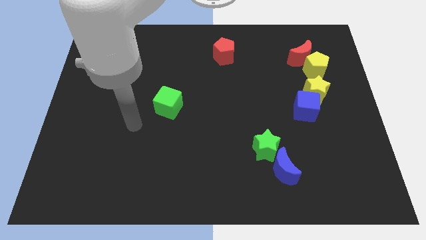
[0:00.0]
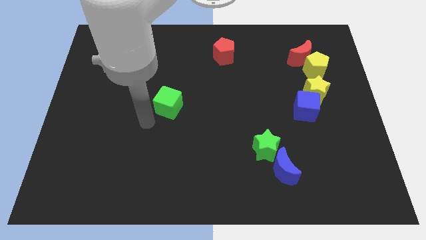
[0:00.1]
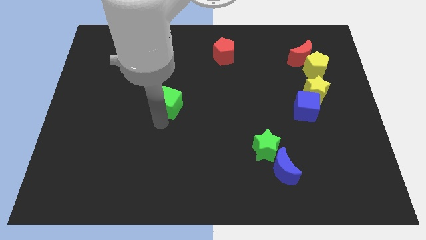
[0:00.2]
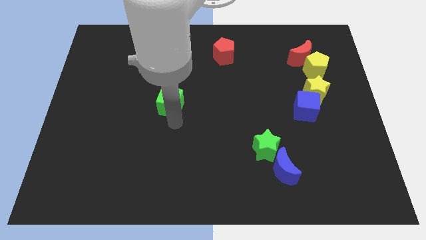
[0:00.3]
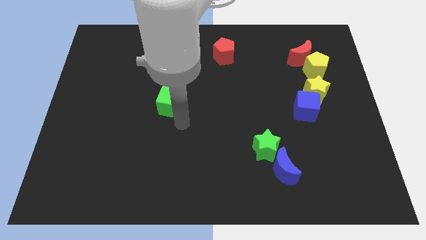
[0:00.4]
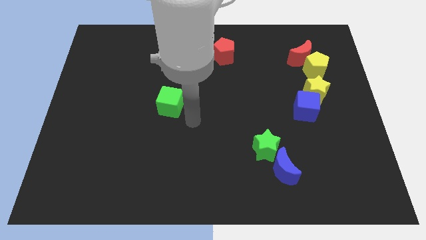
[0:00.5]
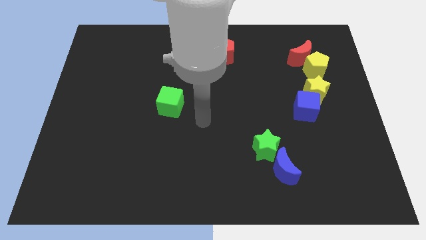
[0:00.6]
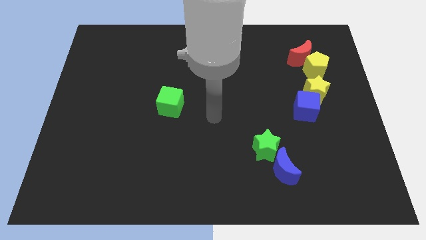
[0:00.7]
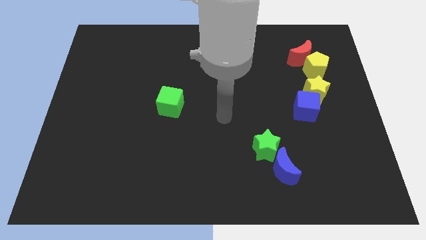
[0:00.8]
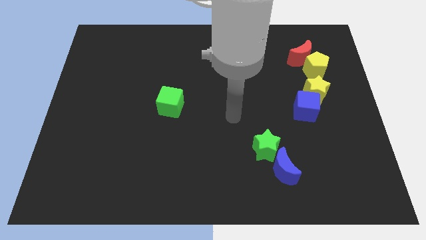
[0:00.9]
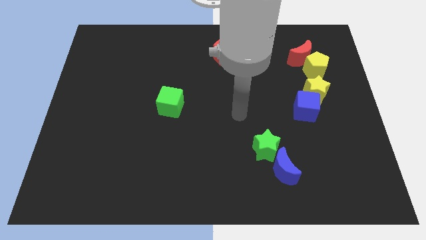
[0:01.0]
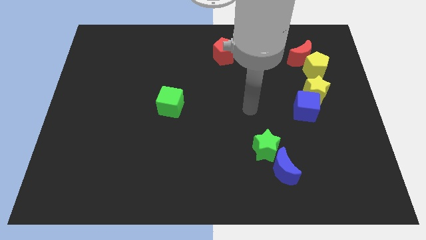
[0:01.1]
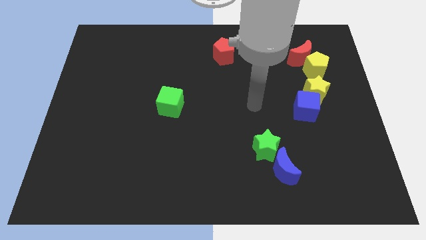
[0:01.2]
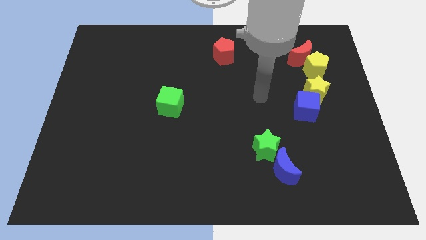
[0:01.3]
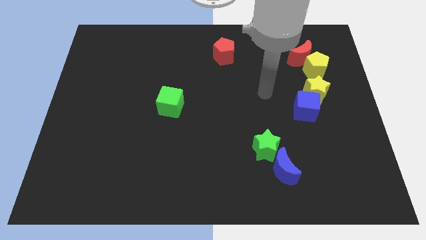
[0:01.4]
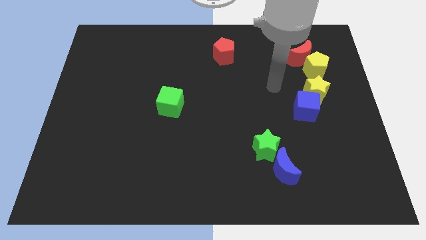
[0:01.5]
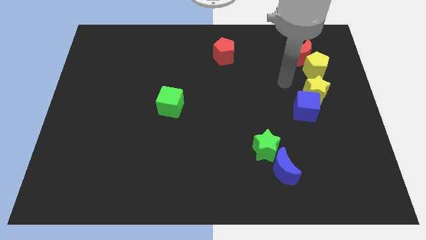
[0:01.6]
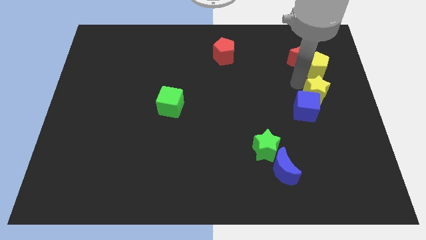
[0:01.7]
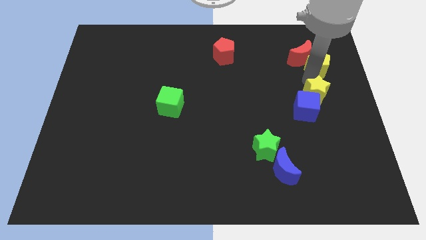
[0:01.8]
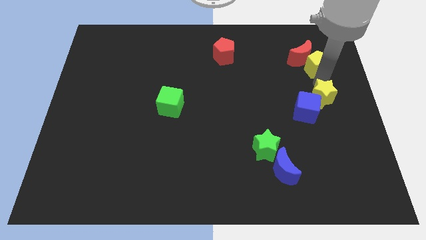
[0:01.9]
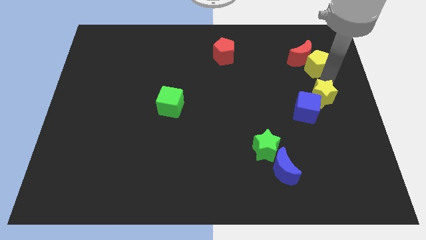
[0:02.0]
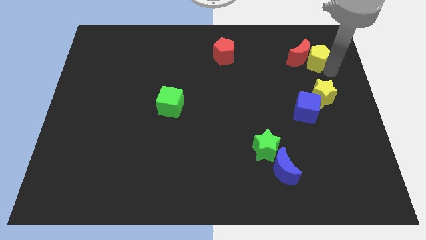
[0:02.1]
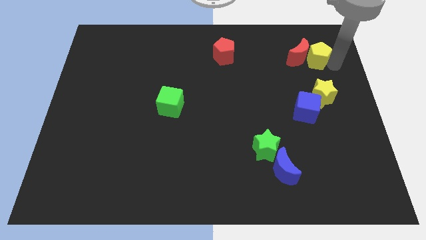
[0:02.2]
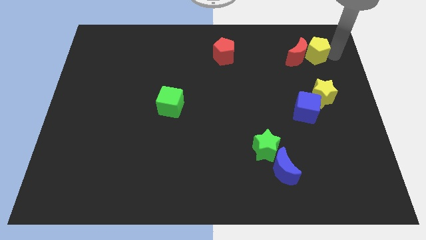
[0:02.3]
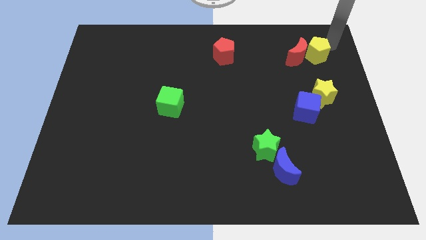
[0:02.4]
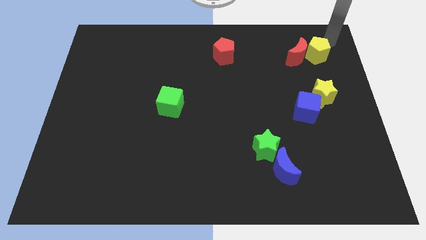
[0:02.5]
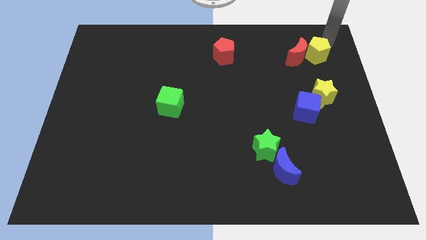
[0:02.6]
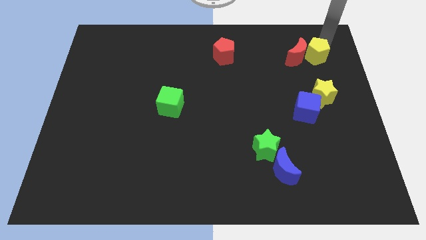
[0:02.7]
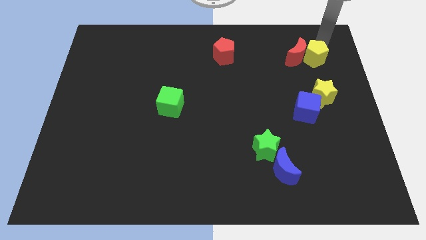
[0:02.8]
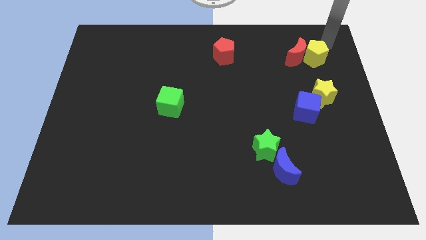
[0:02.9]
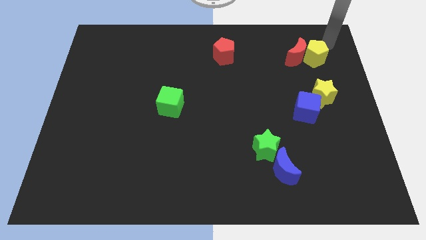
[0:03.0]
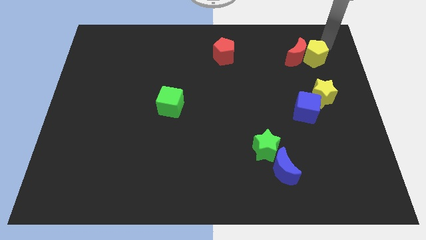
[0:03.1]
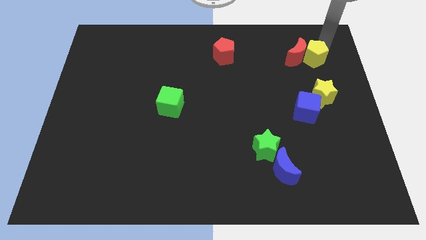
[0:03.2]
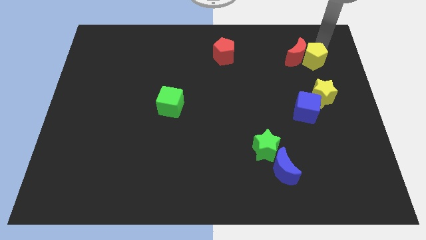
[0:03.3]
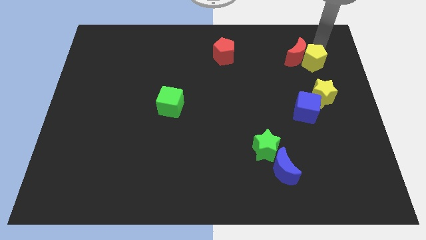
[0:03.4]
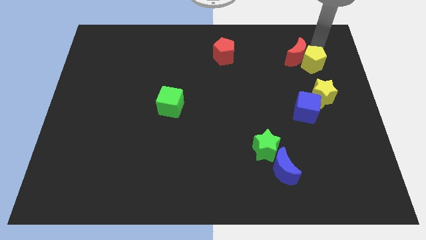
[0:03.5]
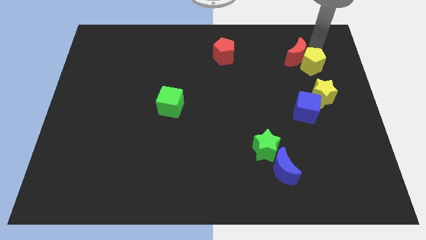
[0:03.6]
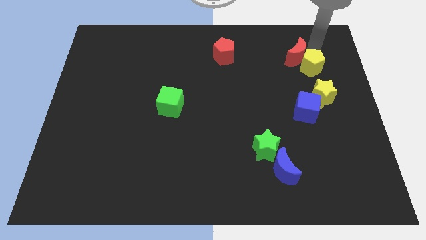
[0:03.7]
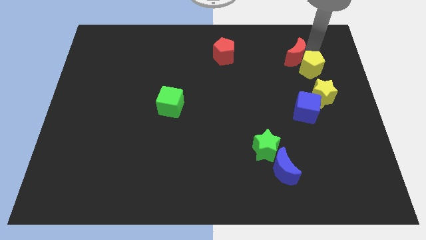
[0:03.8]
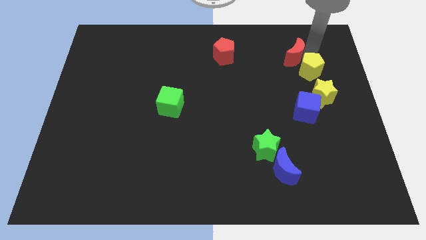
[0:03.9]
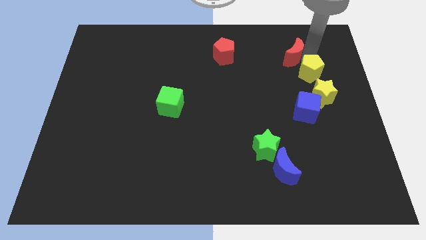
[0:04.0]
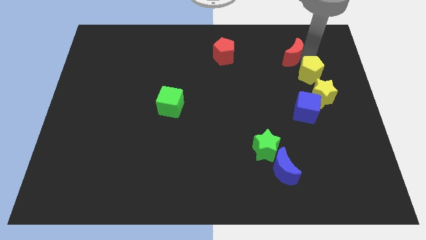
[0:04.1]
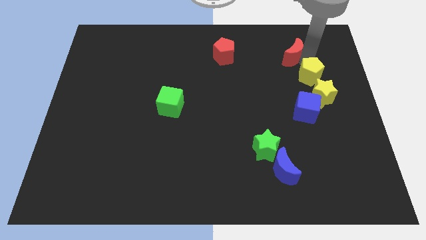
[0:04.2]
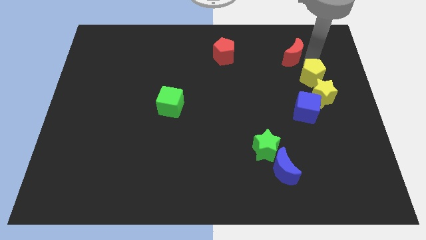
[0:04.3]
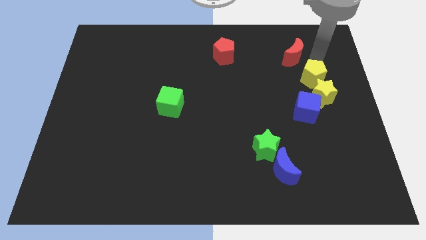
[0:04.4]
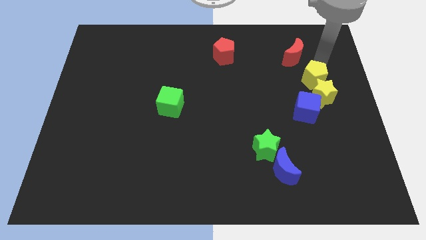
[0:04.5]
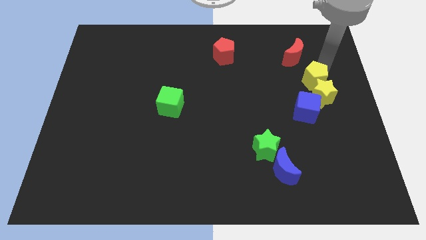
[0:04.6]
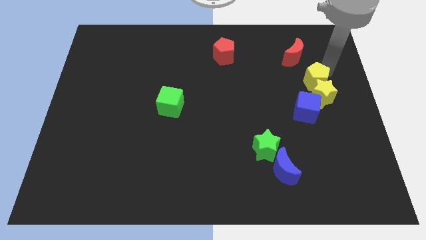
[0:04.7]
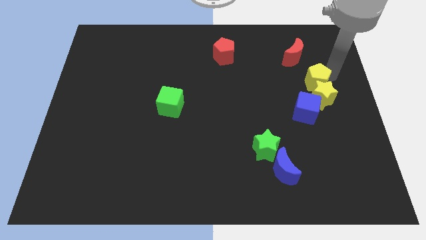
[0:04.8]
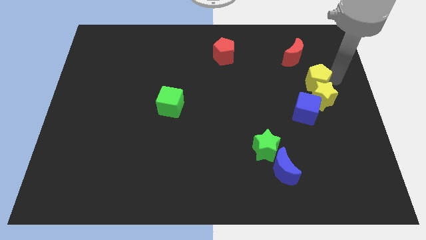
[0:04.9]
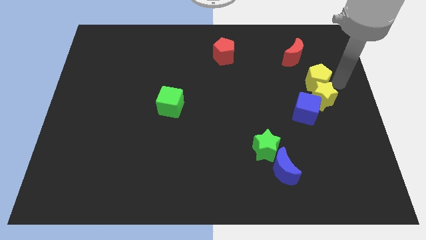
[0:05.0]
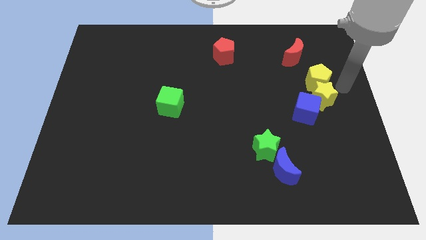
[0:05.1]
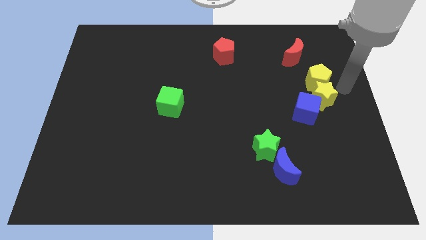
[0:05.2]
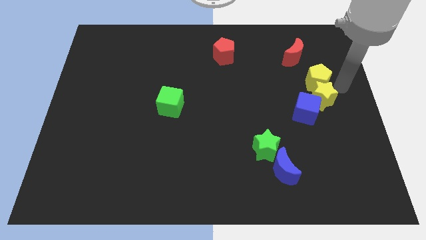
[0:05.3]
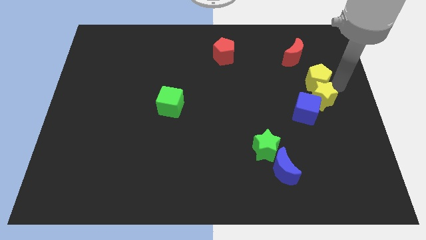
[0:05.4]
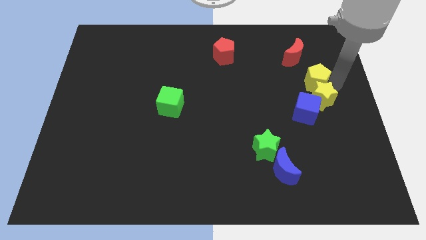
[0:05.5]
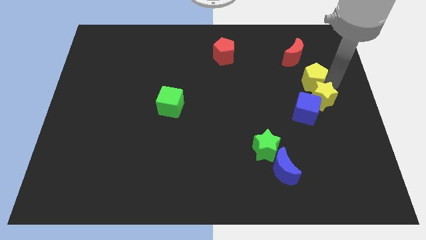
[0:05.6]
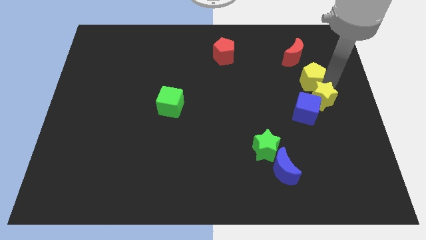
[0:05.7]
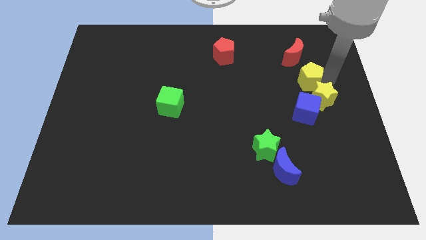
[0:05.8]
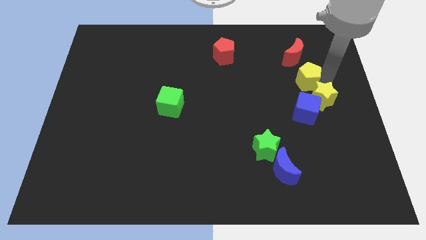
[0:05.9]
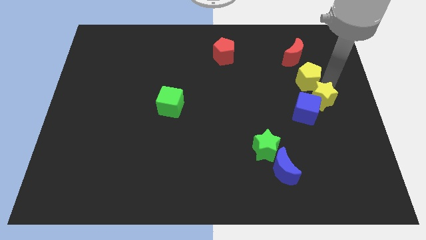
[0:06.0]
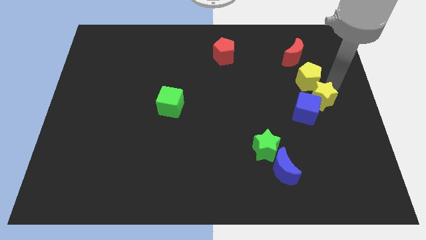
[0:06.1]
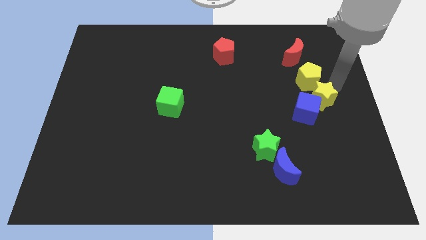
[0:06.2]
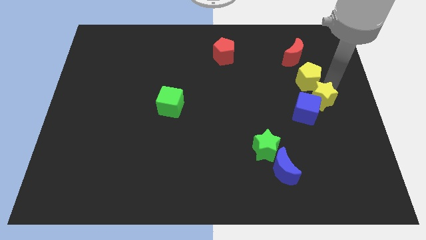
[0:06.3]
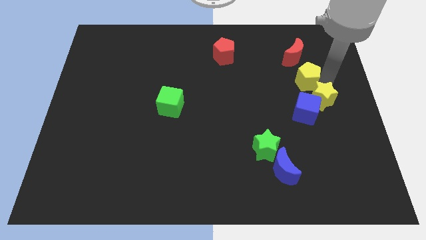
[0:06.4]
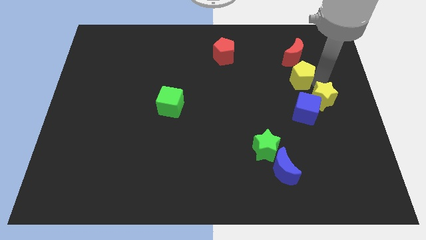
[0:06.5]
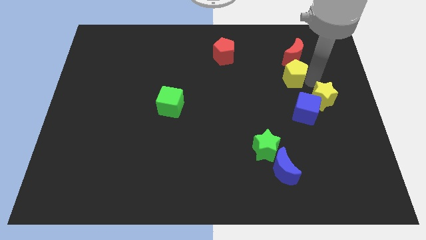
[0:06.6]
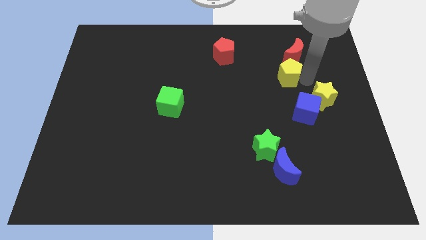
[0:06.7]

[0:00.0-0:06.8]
move the yellow pentagon to the left a little

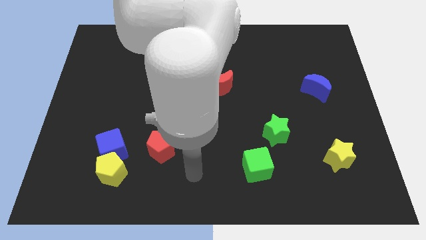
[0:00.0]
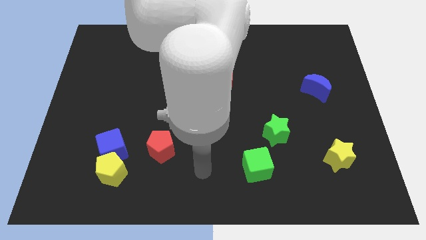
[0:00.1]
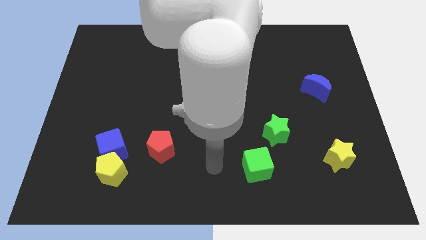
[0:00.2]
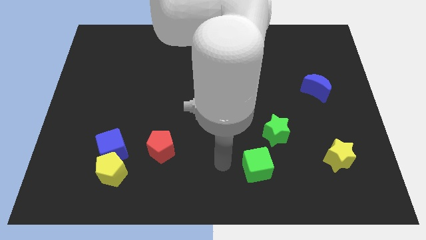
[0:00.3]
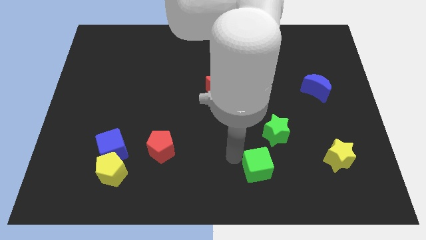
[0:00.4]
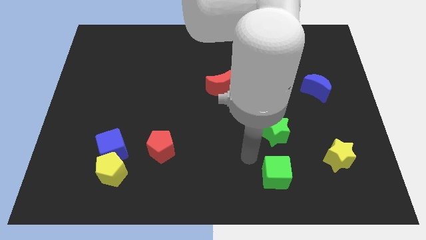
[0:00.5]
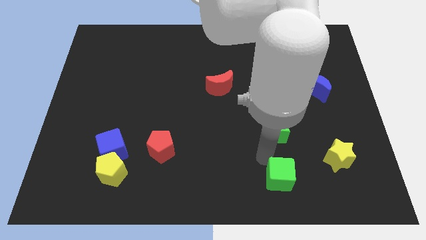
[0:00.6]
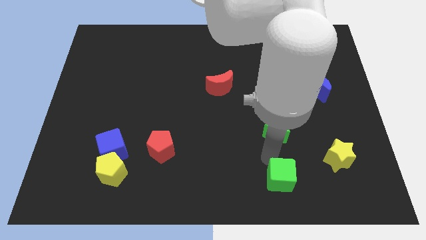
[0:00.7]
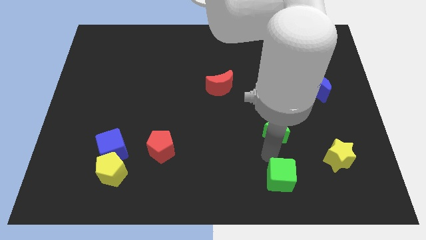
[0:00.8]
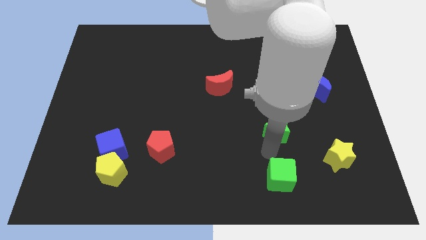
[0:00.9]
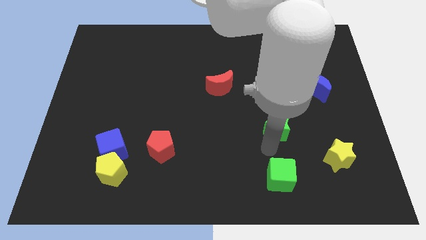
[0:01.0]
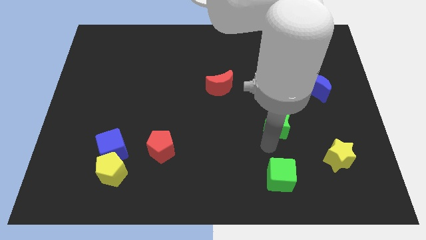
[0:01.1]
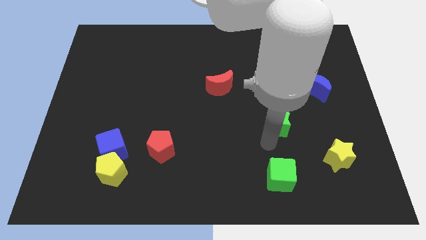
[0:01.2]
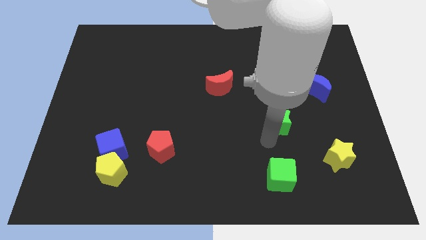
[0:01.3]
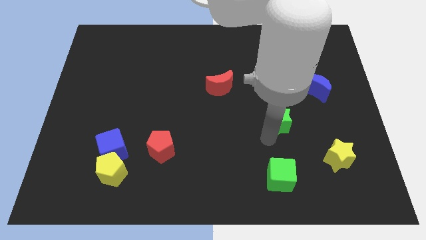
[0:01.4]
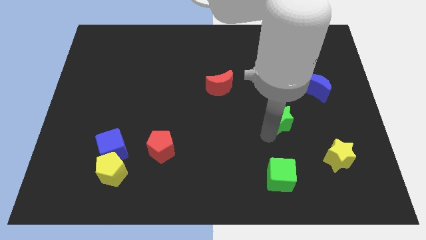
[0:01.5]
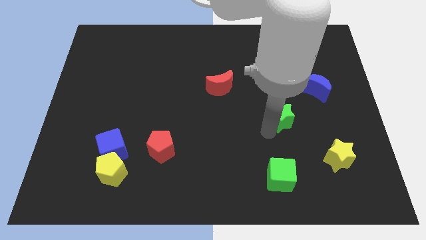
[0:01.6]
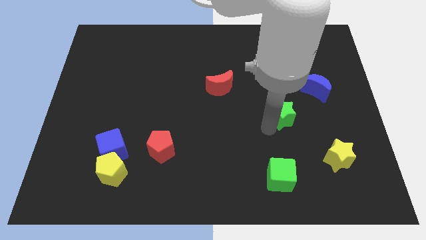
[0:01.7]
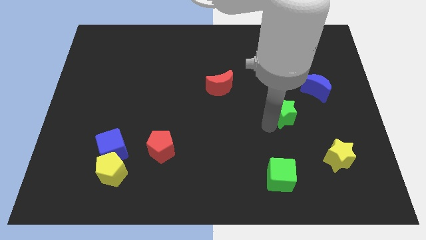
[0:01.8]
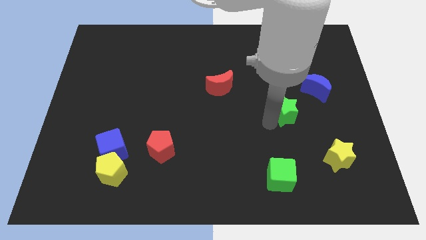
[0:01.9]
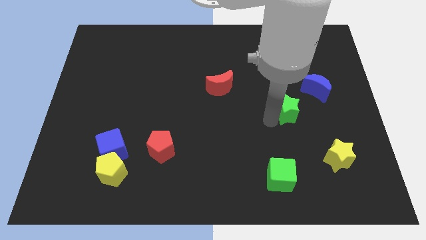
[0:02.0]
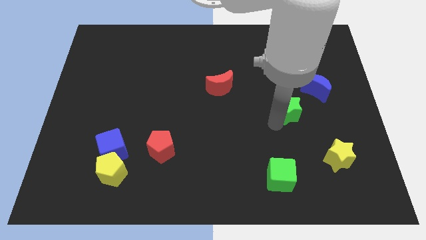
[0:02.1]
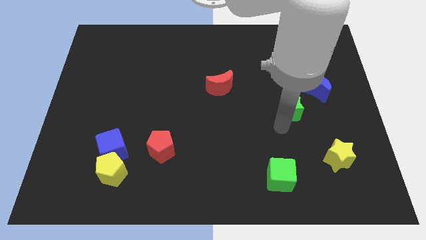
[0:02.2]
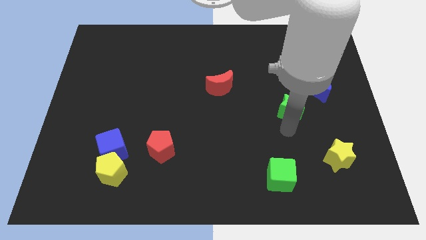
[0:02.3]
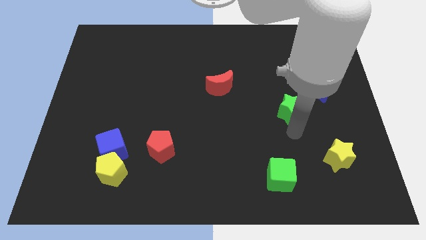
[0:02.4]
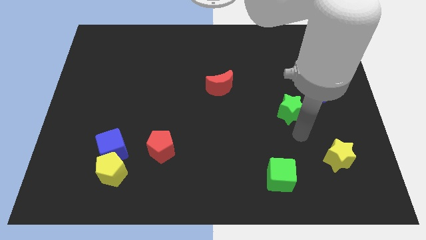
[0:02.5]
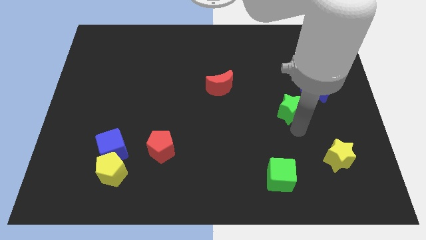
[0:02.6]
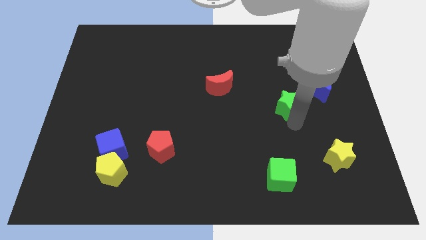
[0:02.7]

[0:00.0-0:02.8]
slightly slide the green star upwards
